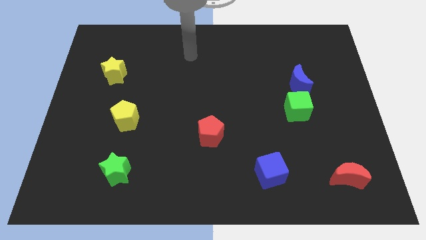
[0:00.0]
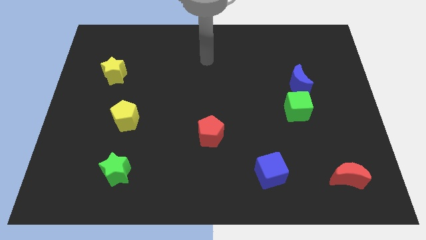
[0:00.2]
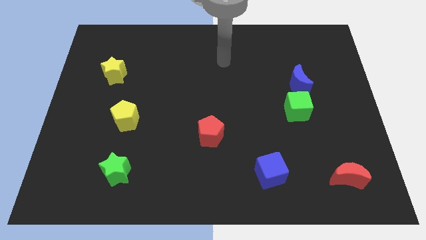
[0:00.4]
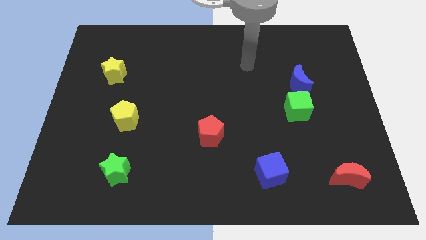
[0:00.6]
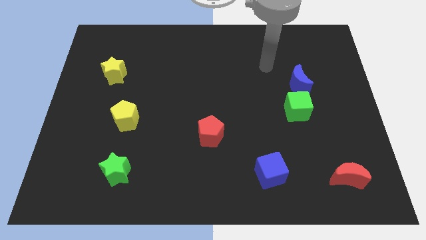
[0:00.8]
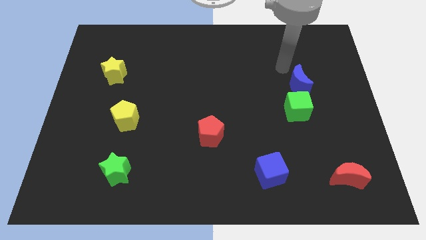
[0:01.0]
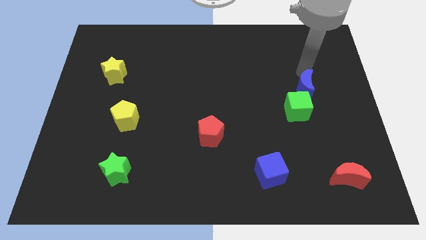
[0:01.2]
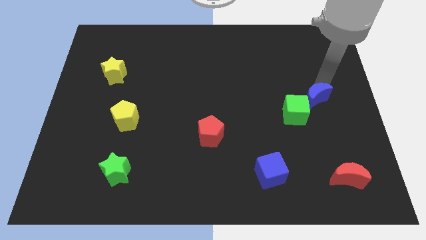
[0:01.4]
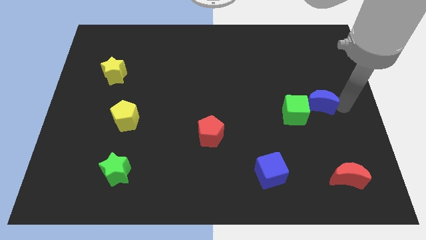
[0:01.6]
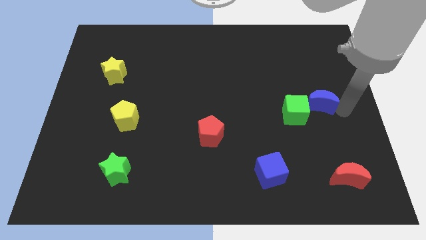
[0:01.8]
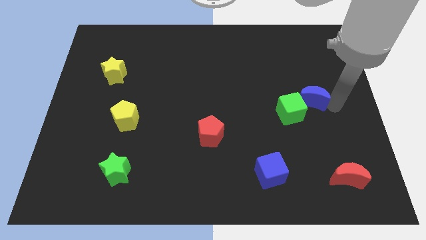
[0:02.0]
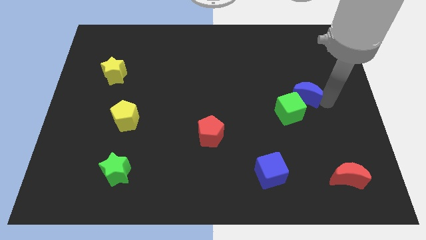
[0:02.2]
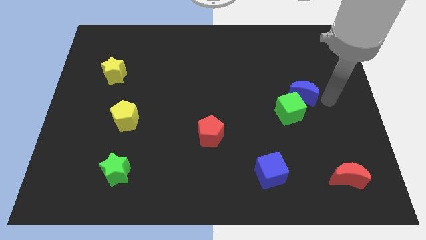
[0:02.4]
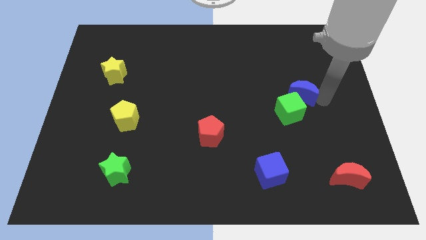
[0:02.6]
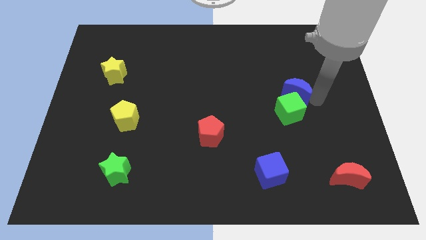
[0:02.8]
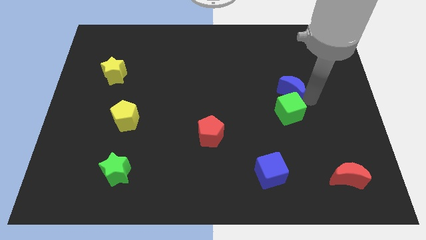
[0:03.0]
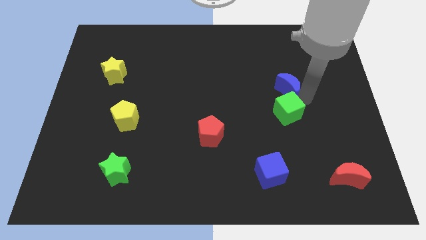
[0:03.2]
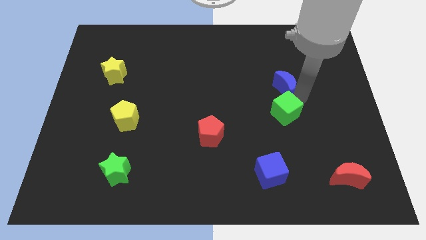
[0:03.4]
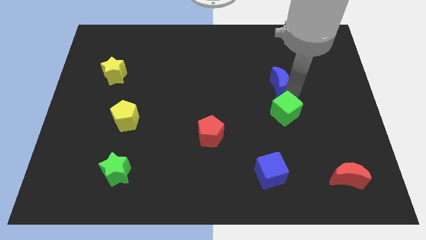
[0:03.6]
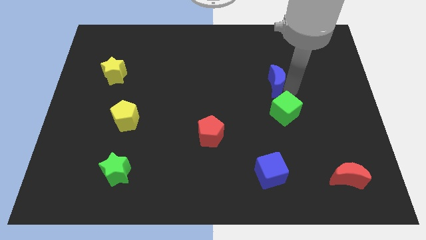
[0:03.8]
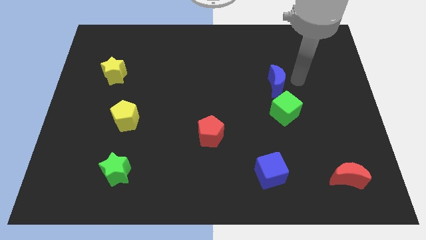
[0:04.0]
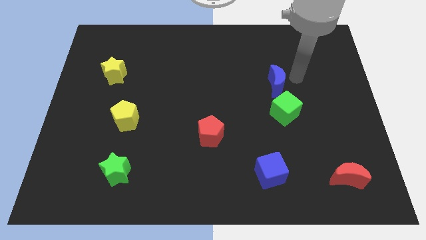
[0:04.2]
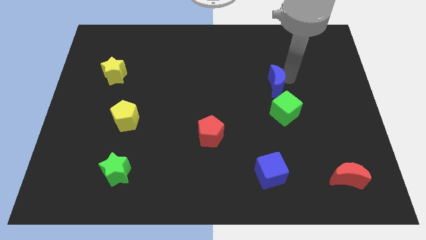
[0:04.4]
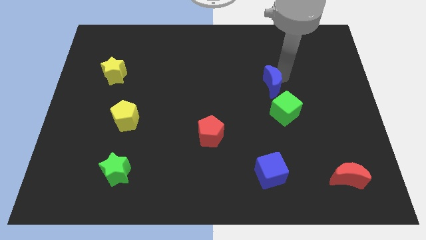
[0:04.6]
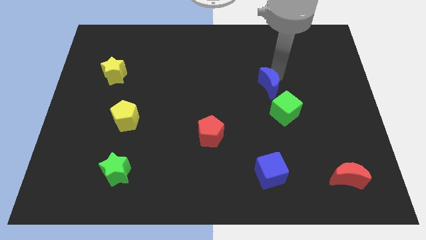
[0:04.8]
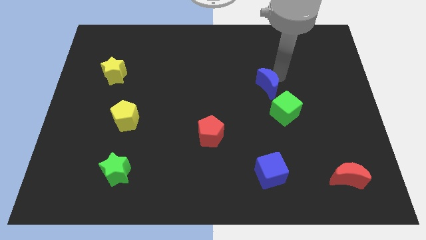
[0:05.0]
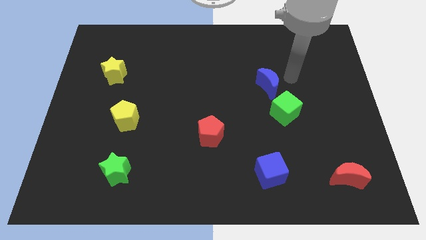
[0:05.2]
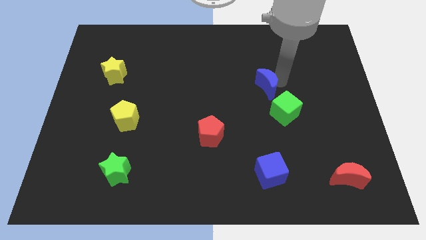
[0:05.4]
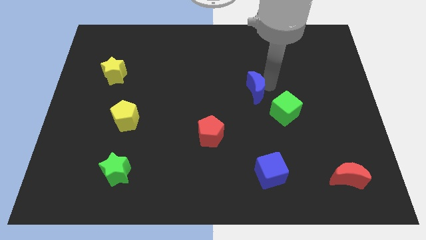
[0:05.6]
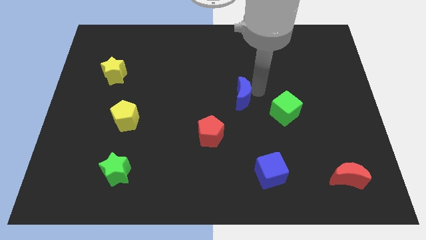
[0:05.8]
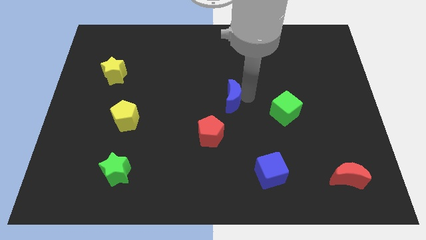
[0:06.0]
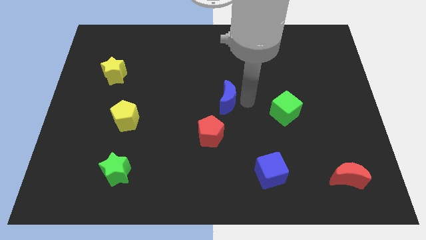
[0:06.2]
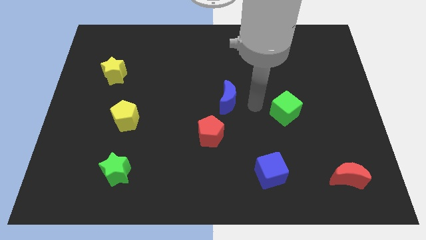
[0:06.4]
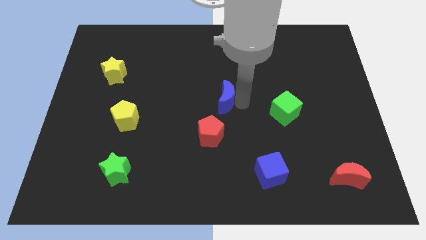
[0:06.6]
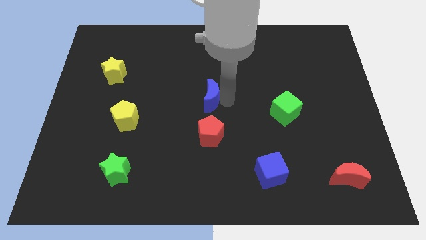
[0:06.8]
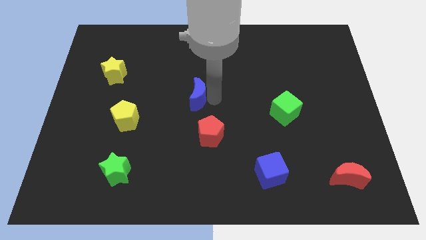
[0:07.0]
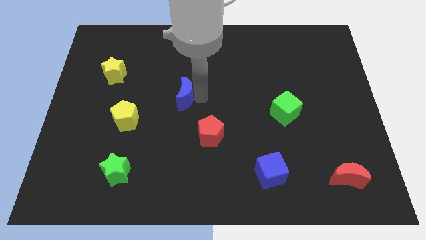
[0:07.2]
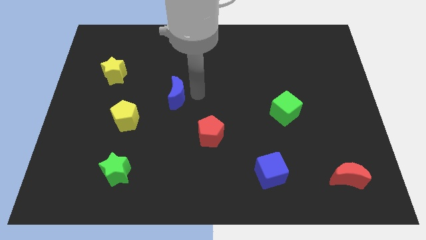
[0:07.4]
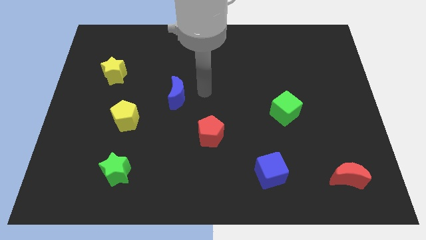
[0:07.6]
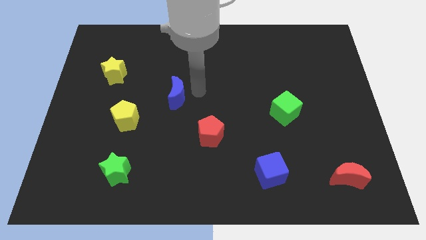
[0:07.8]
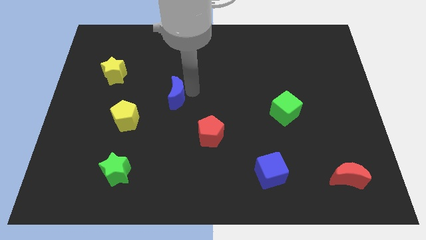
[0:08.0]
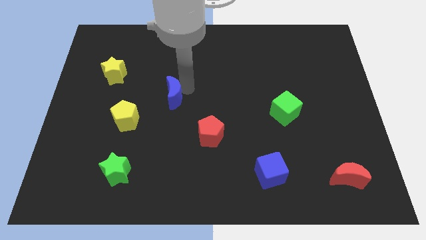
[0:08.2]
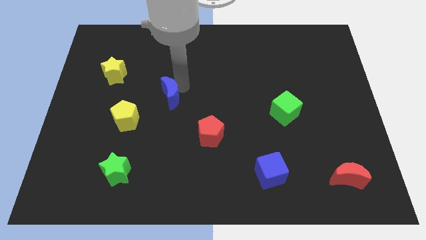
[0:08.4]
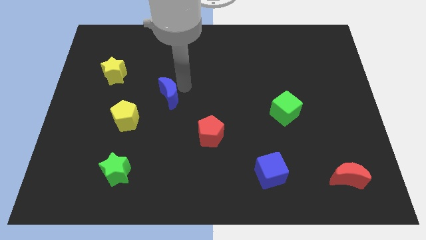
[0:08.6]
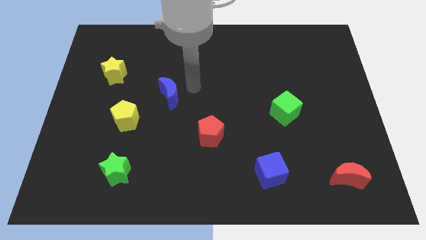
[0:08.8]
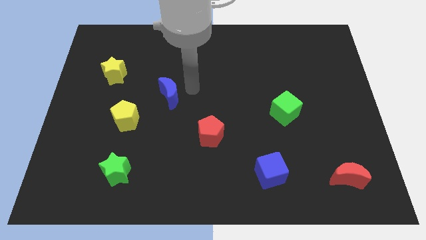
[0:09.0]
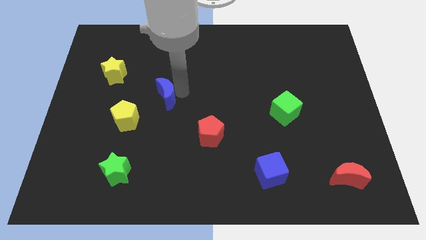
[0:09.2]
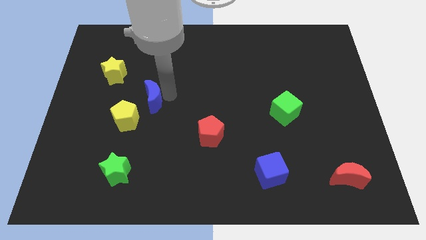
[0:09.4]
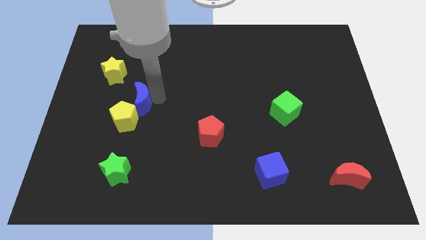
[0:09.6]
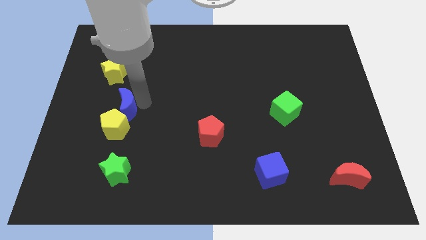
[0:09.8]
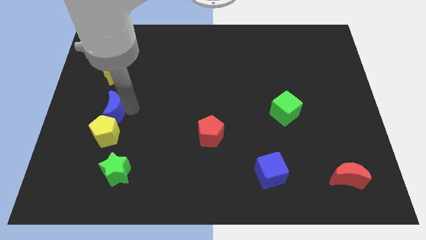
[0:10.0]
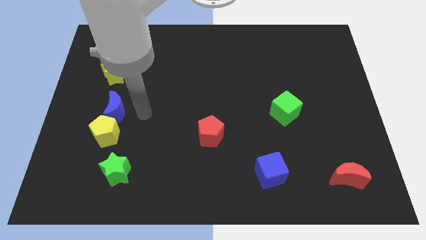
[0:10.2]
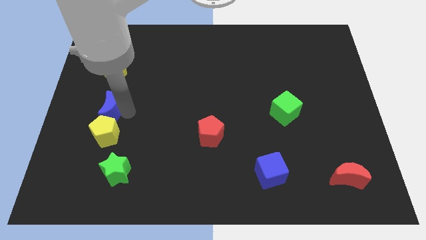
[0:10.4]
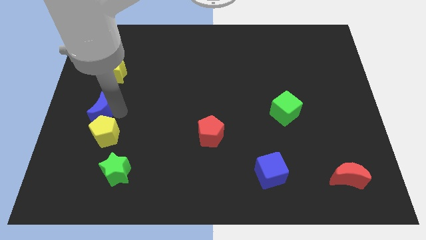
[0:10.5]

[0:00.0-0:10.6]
push the blue moon to the left side of the board
